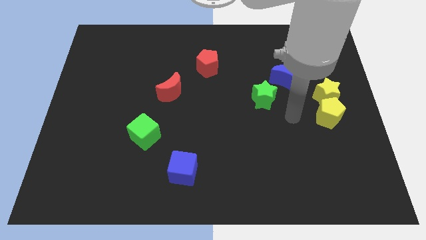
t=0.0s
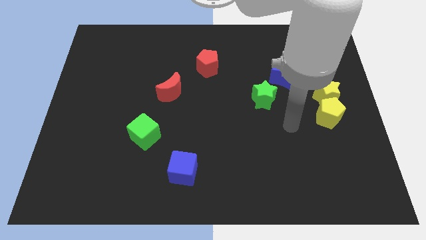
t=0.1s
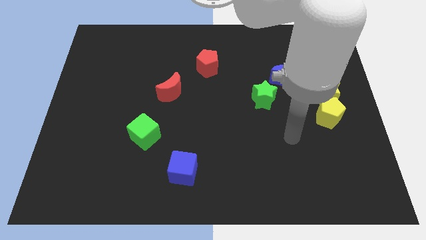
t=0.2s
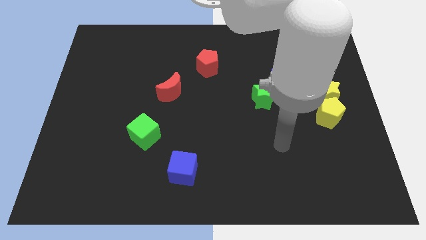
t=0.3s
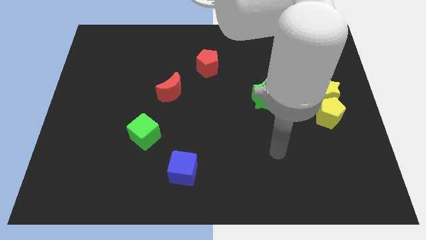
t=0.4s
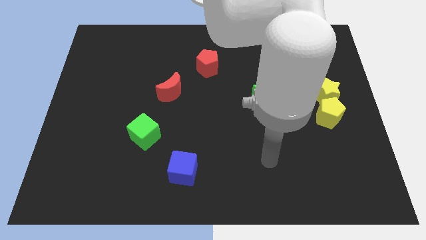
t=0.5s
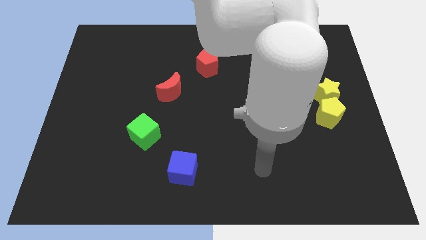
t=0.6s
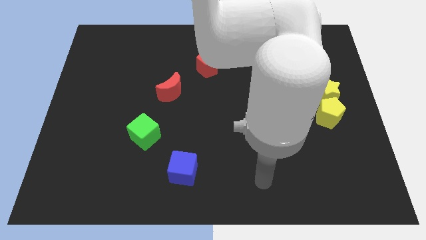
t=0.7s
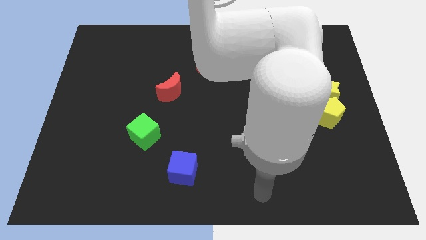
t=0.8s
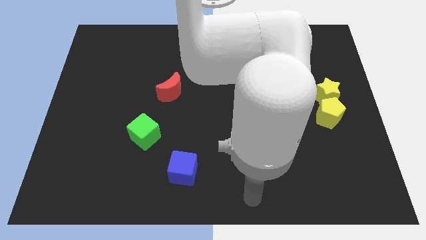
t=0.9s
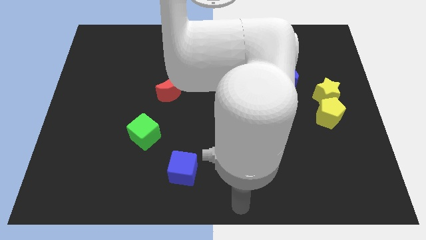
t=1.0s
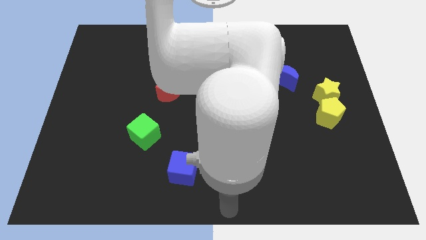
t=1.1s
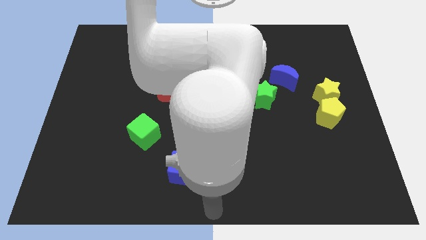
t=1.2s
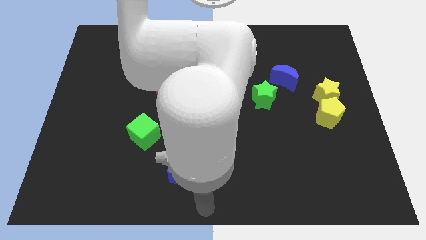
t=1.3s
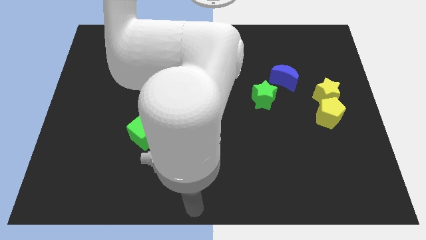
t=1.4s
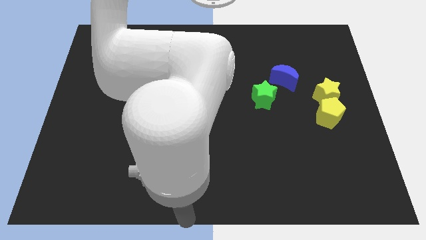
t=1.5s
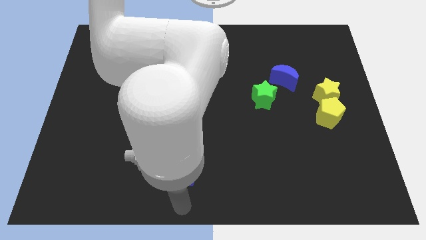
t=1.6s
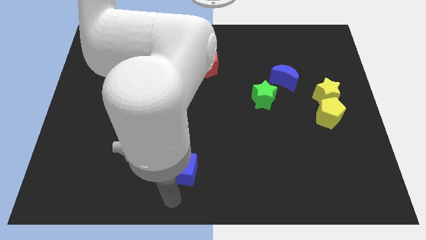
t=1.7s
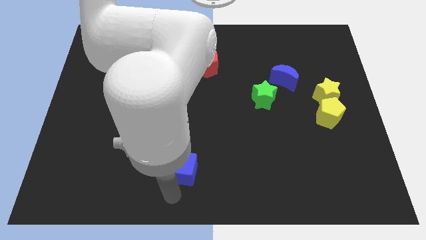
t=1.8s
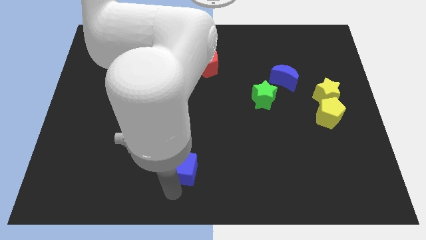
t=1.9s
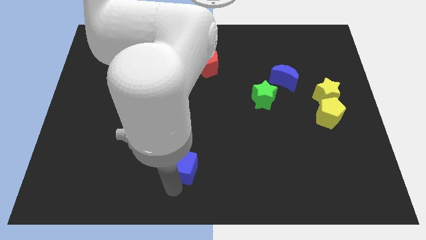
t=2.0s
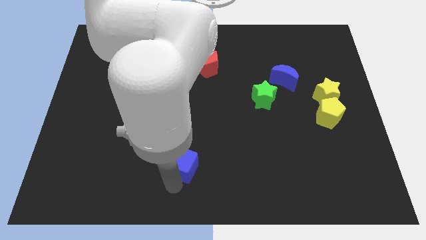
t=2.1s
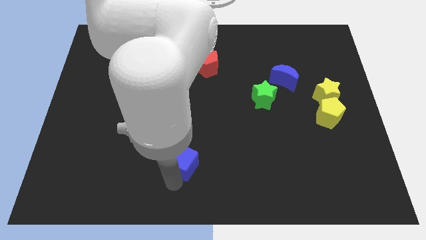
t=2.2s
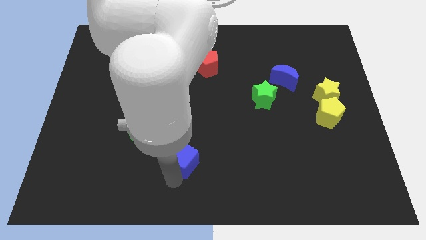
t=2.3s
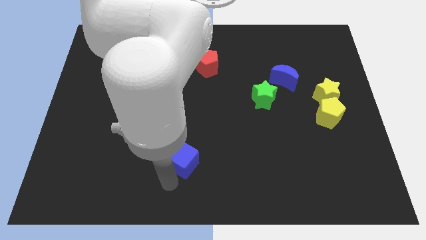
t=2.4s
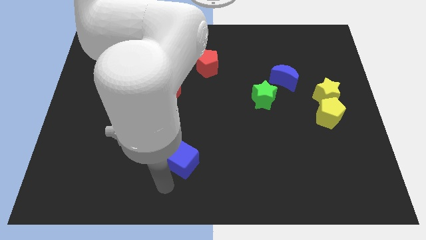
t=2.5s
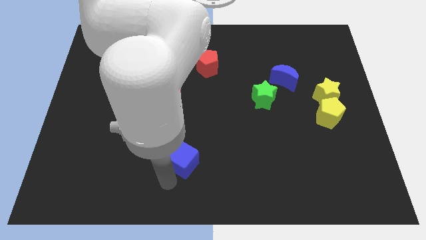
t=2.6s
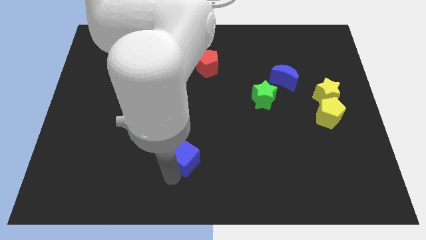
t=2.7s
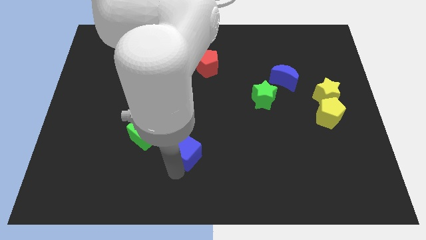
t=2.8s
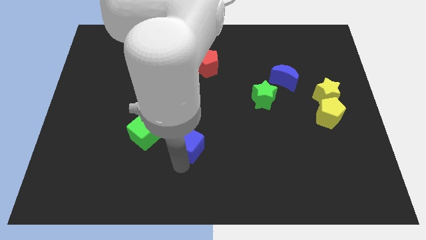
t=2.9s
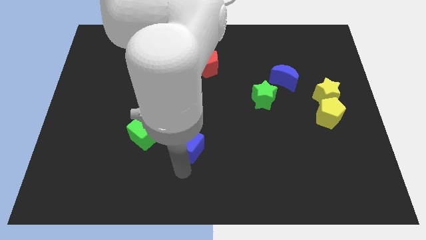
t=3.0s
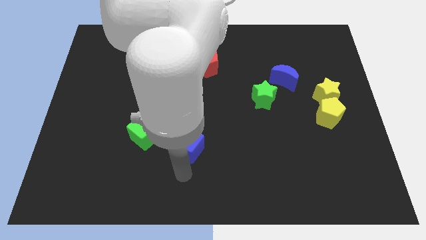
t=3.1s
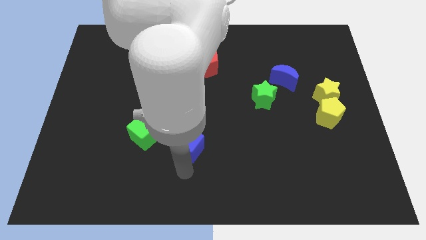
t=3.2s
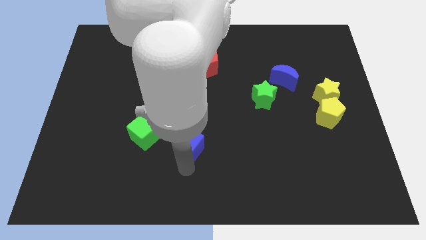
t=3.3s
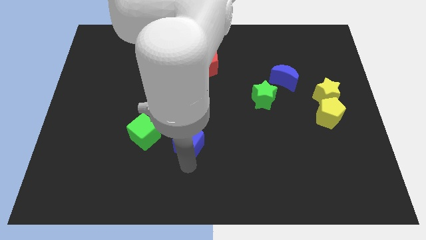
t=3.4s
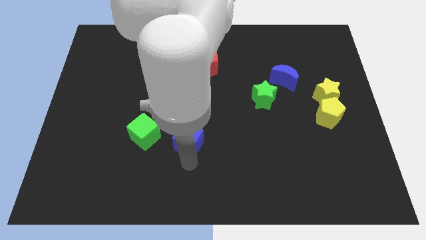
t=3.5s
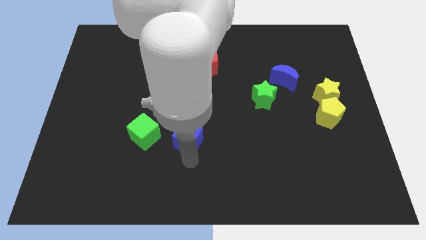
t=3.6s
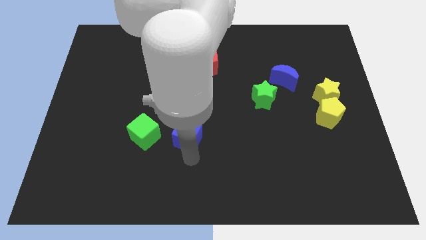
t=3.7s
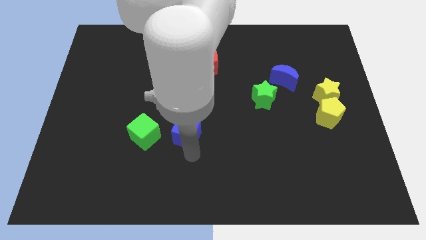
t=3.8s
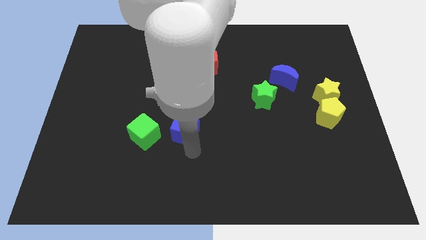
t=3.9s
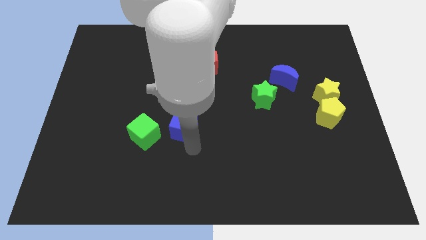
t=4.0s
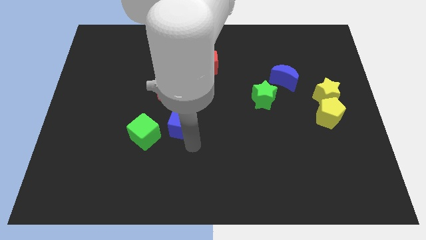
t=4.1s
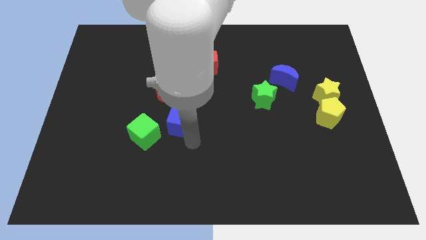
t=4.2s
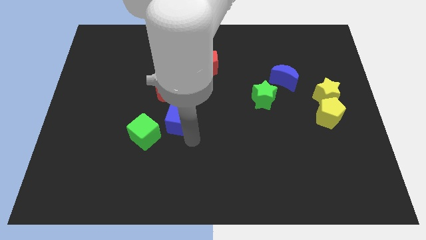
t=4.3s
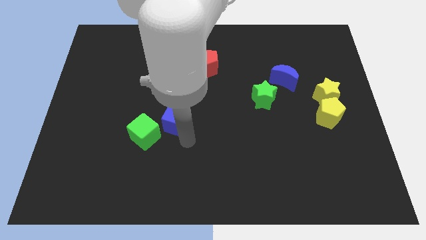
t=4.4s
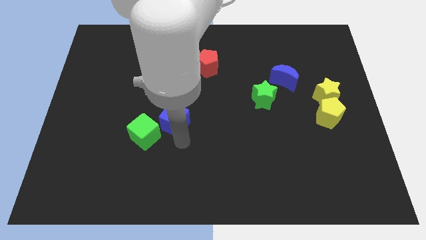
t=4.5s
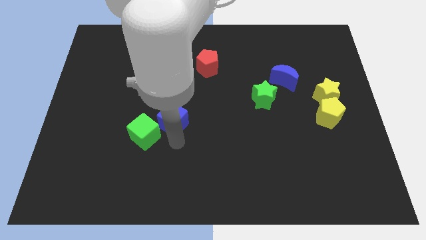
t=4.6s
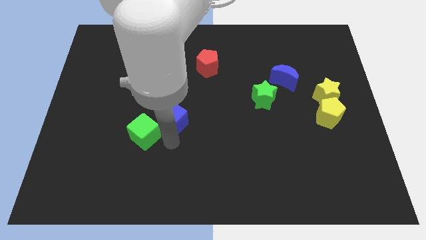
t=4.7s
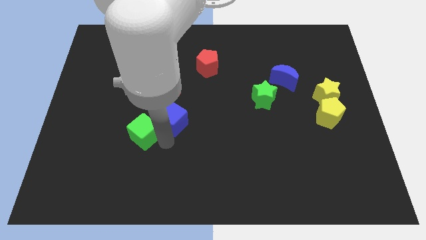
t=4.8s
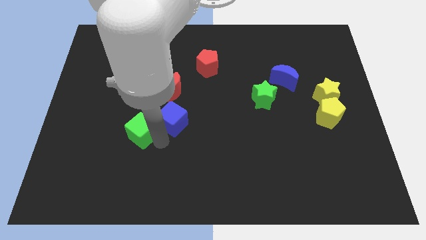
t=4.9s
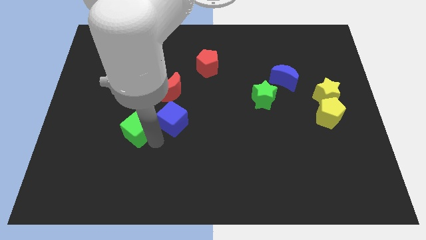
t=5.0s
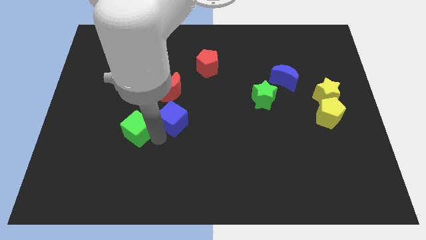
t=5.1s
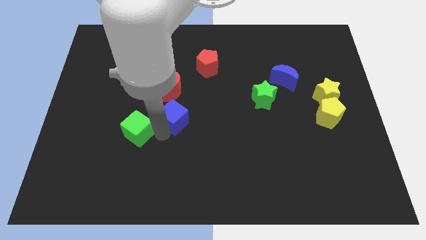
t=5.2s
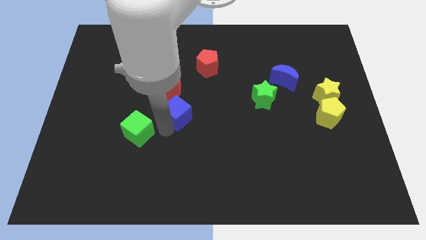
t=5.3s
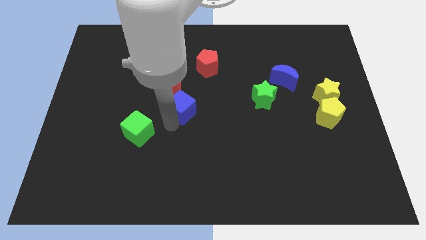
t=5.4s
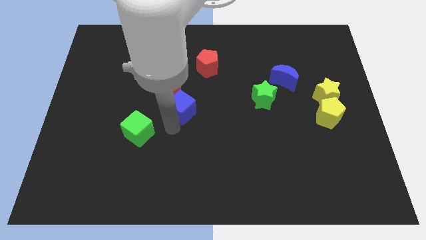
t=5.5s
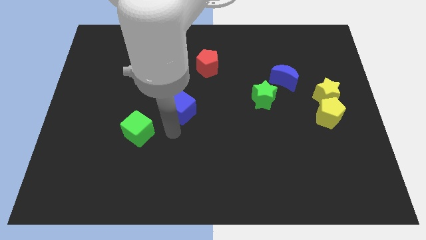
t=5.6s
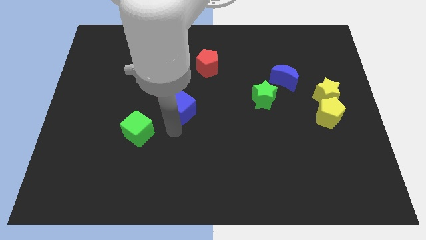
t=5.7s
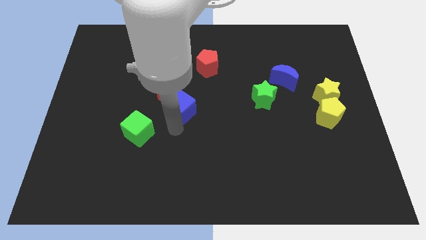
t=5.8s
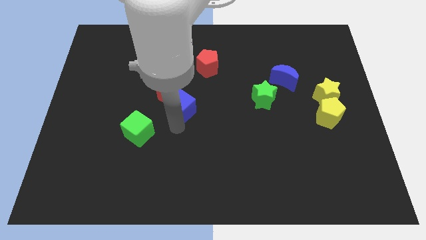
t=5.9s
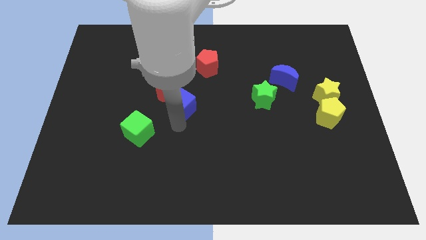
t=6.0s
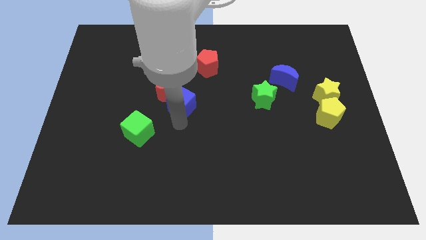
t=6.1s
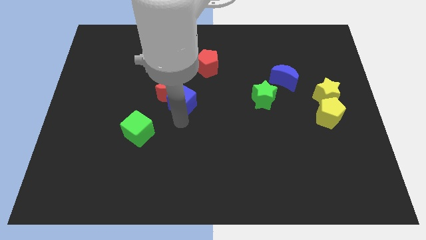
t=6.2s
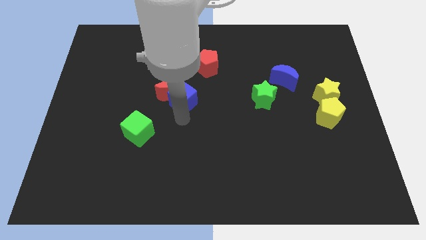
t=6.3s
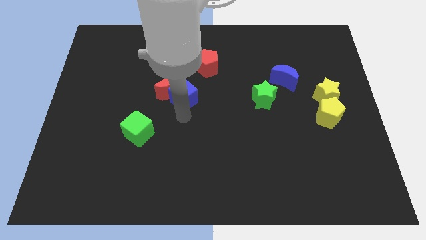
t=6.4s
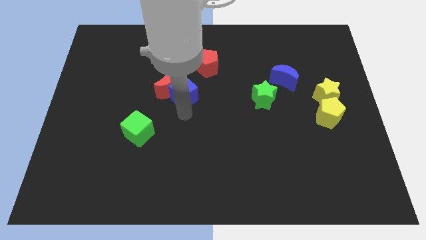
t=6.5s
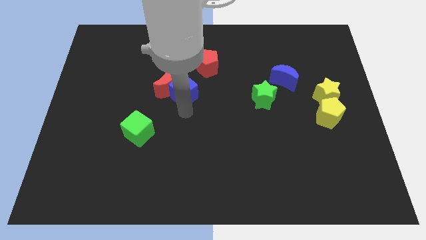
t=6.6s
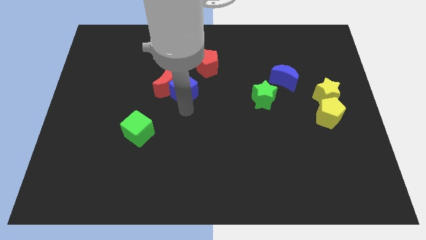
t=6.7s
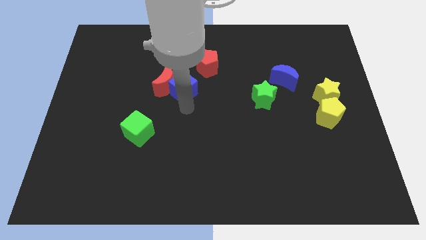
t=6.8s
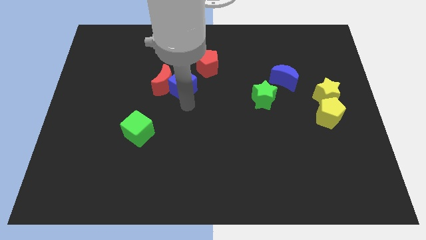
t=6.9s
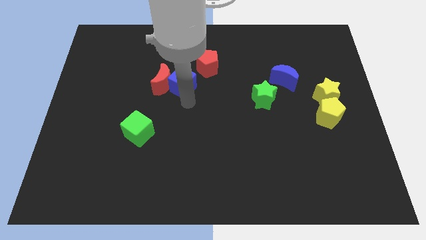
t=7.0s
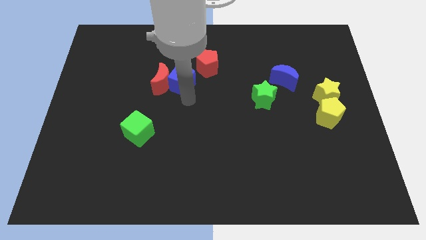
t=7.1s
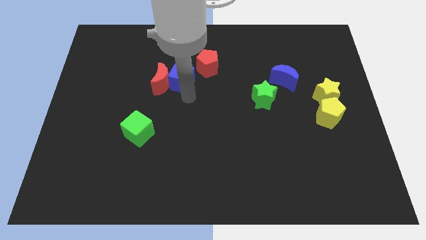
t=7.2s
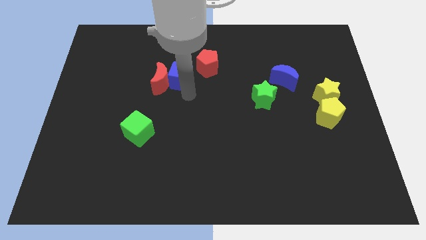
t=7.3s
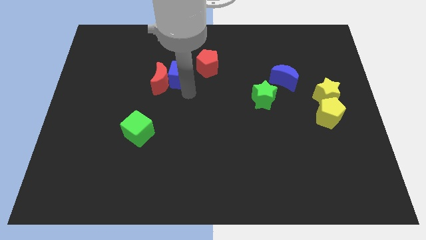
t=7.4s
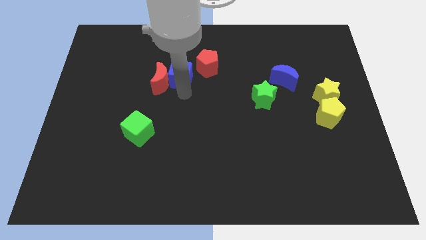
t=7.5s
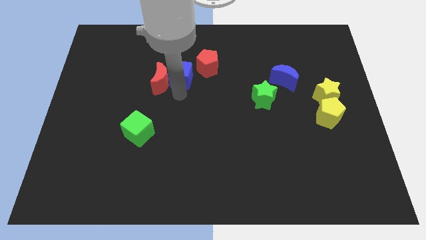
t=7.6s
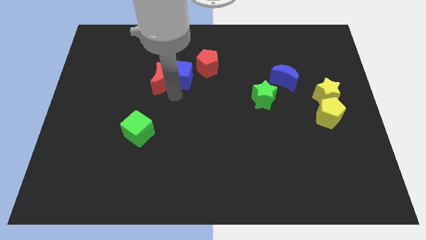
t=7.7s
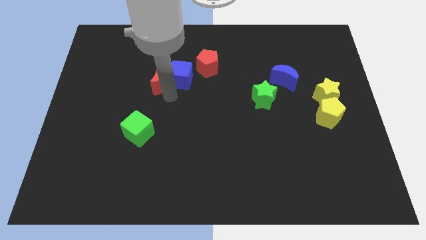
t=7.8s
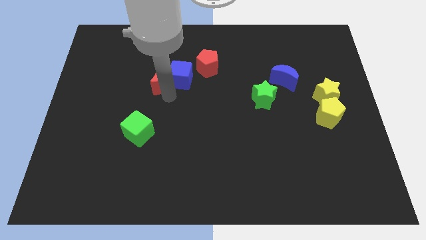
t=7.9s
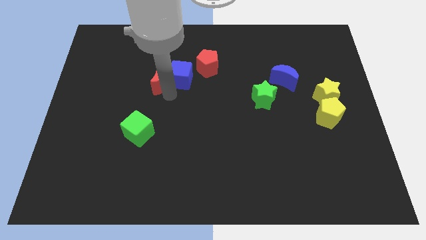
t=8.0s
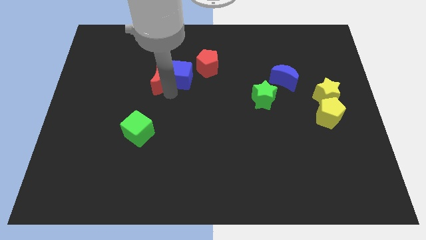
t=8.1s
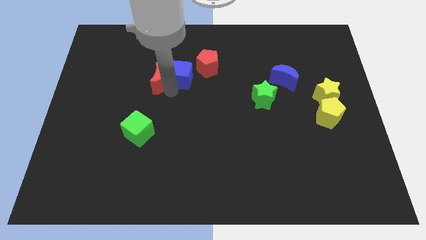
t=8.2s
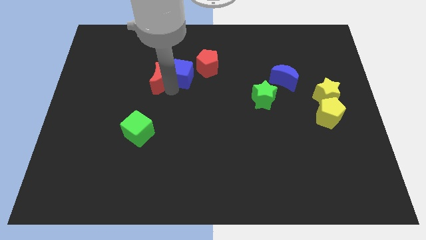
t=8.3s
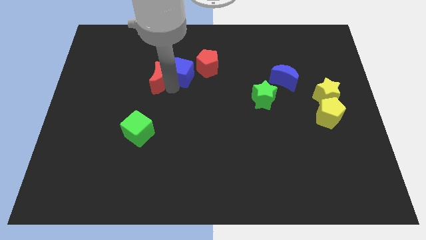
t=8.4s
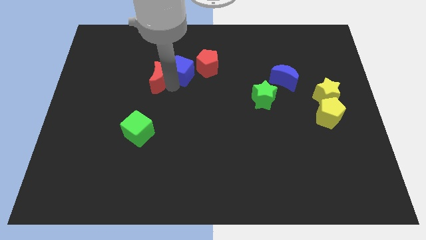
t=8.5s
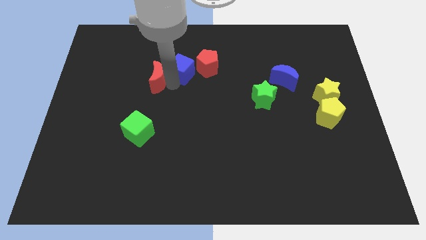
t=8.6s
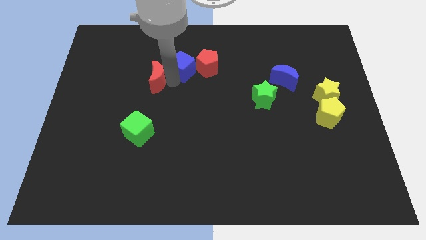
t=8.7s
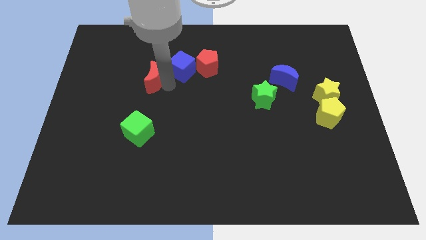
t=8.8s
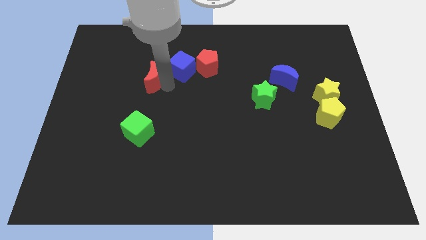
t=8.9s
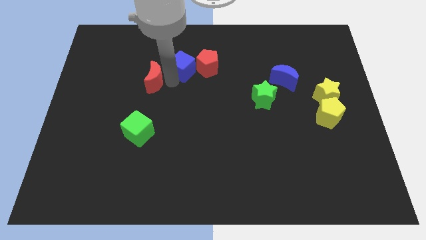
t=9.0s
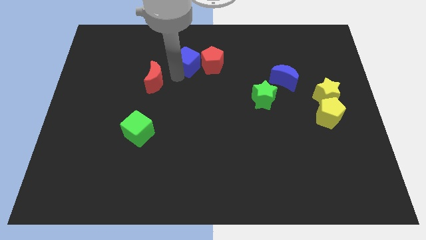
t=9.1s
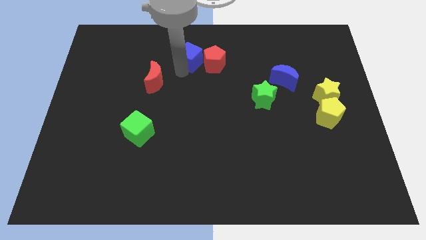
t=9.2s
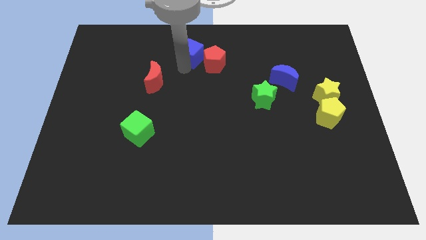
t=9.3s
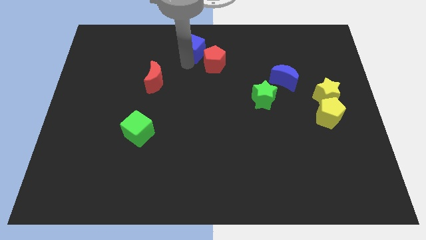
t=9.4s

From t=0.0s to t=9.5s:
put the blue cube to the top
